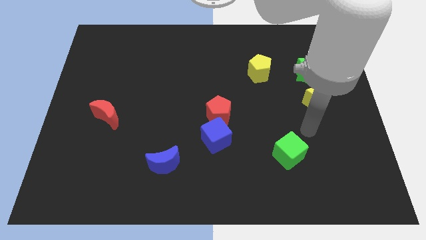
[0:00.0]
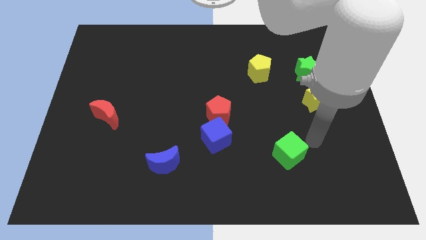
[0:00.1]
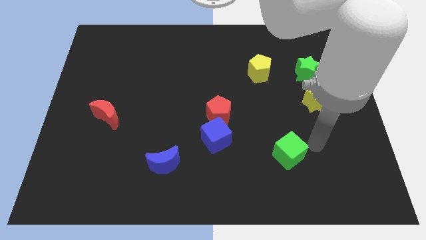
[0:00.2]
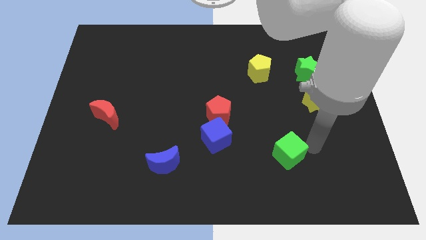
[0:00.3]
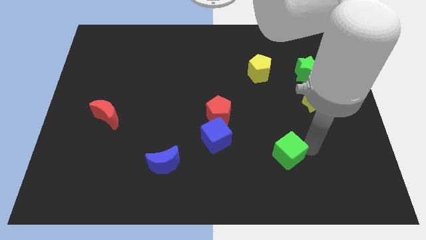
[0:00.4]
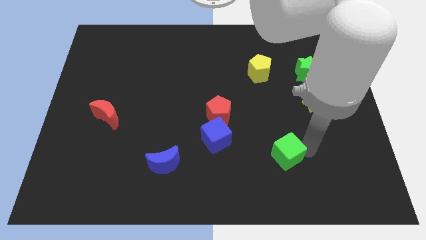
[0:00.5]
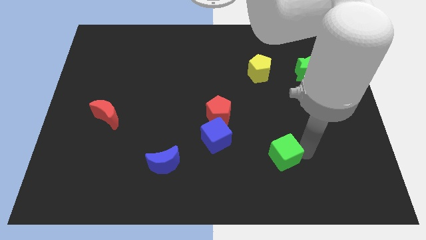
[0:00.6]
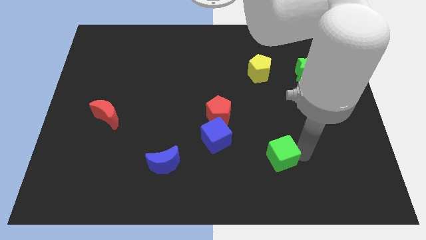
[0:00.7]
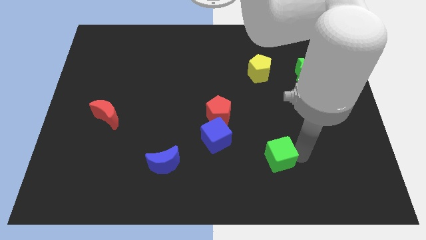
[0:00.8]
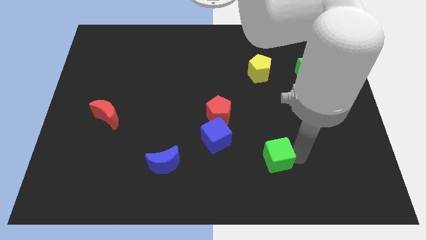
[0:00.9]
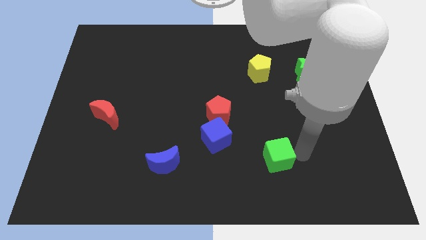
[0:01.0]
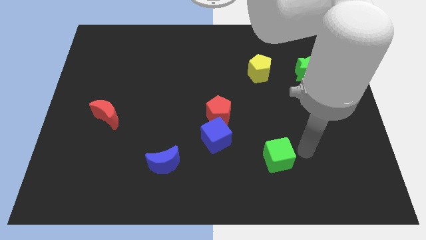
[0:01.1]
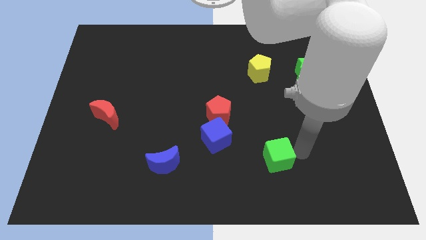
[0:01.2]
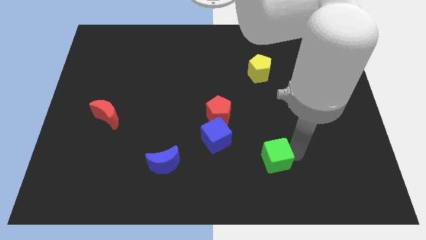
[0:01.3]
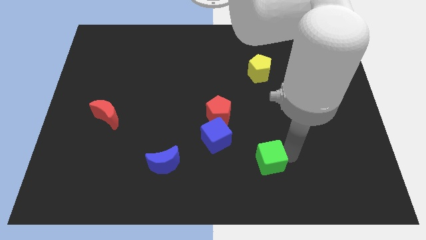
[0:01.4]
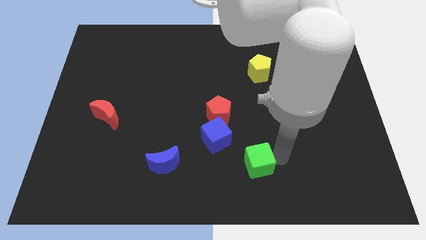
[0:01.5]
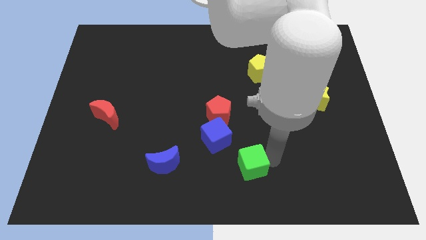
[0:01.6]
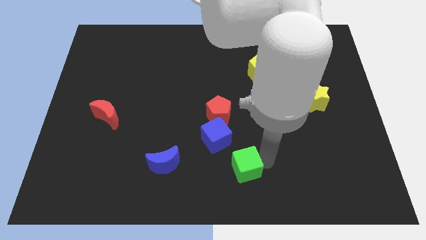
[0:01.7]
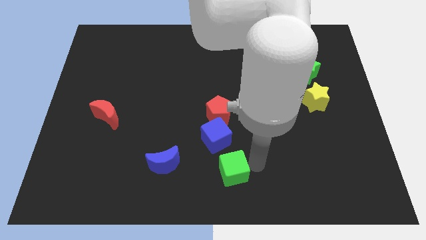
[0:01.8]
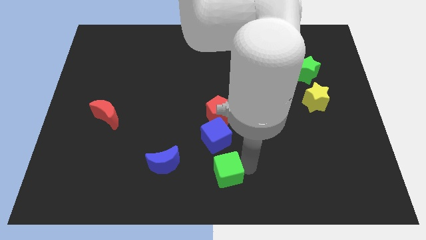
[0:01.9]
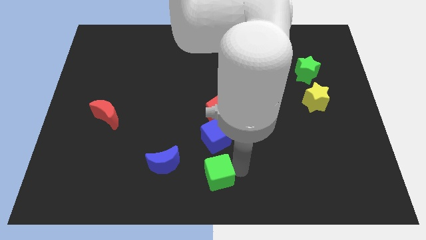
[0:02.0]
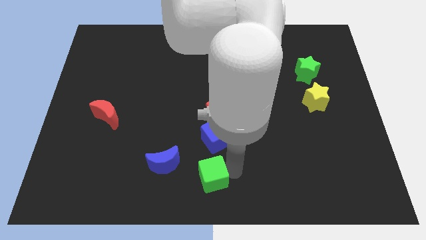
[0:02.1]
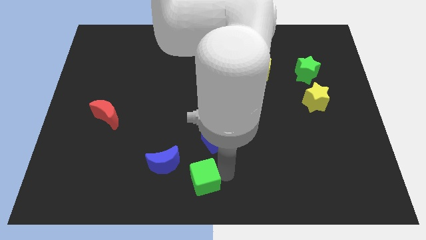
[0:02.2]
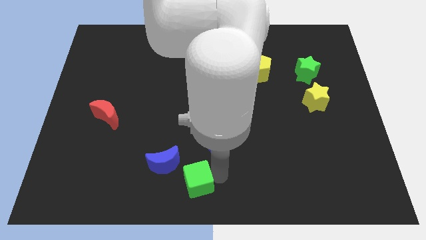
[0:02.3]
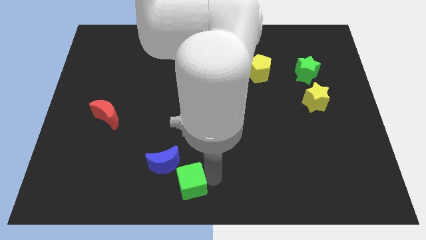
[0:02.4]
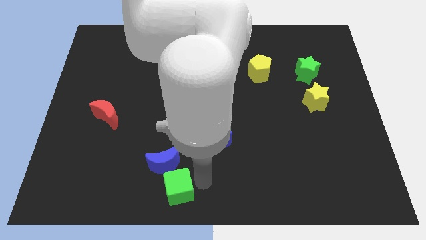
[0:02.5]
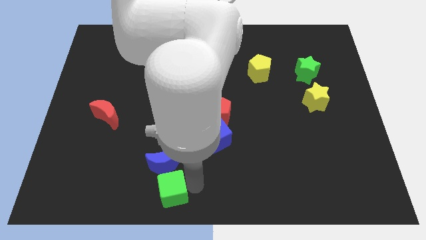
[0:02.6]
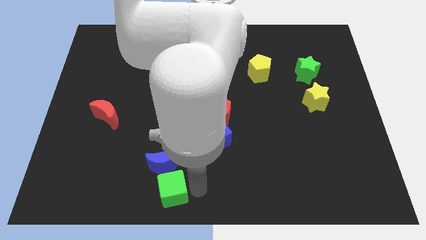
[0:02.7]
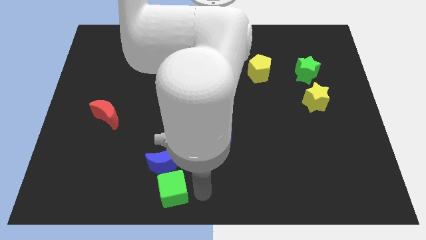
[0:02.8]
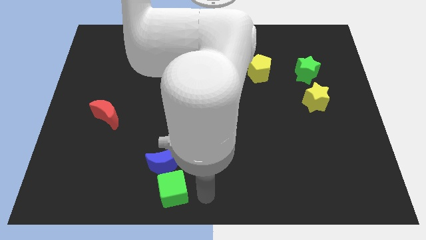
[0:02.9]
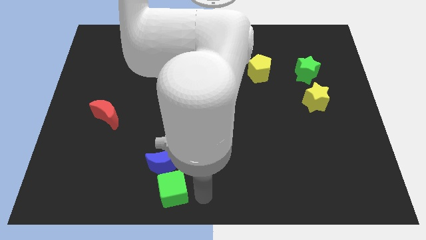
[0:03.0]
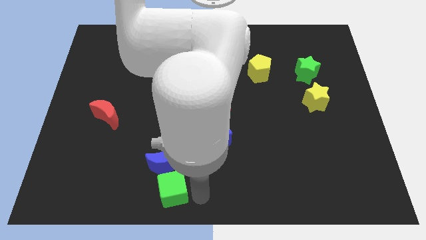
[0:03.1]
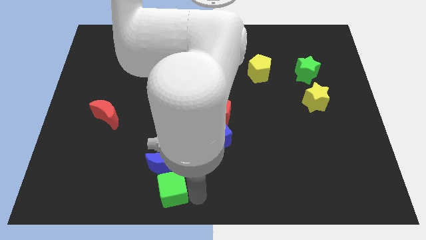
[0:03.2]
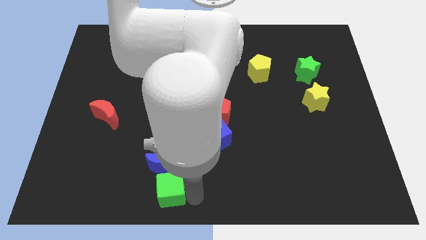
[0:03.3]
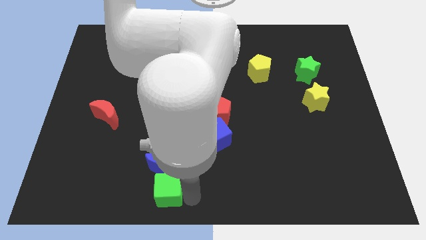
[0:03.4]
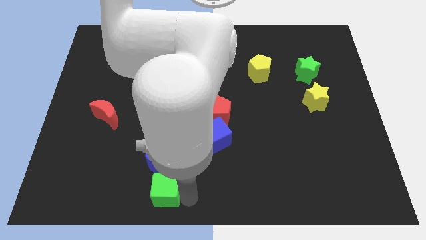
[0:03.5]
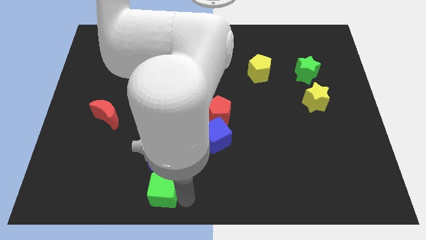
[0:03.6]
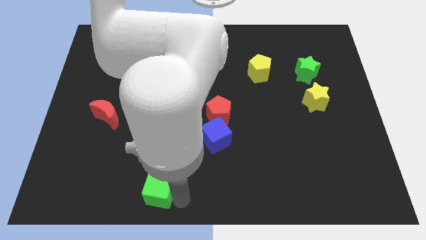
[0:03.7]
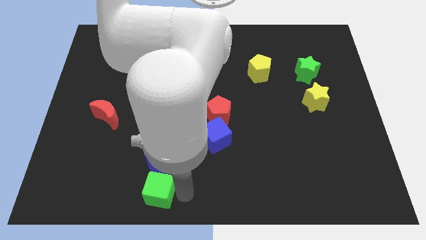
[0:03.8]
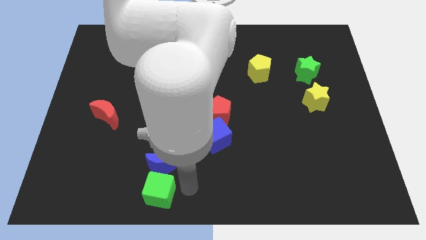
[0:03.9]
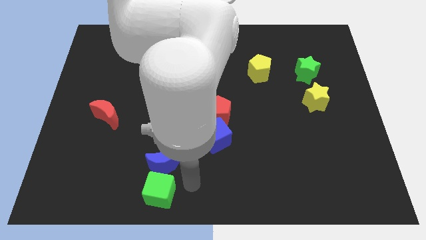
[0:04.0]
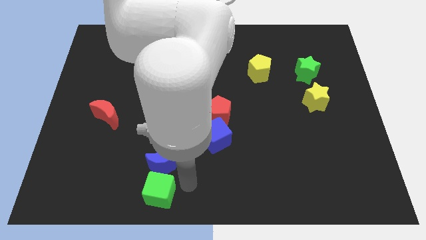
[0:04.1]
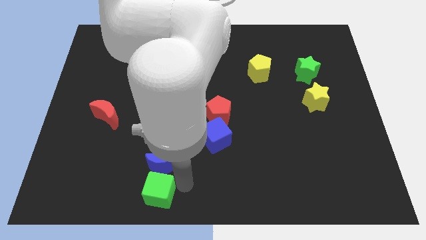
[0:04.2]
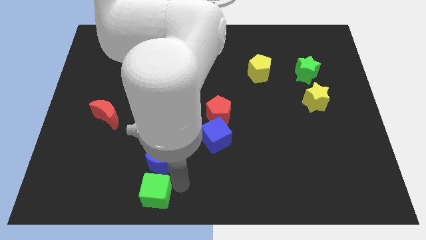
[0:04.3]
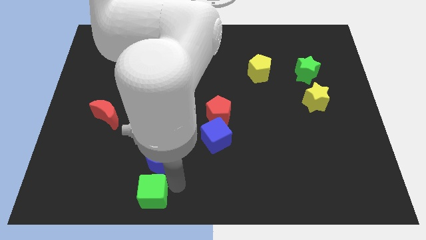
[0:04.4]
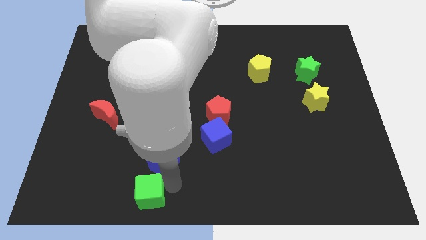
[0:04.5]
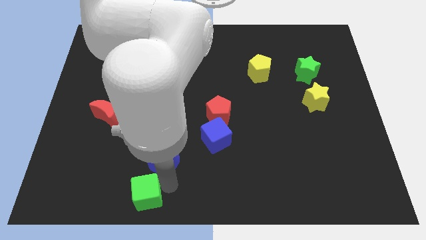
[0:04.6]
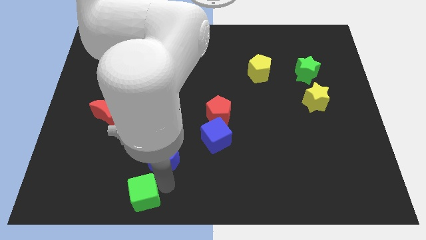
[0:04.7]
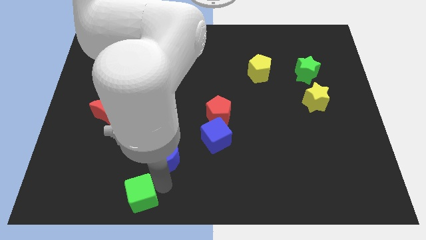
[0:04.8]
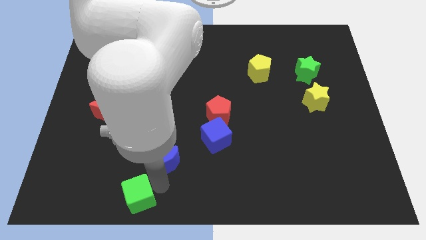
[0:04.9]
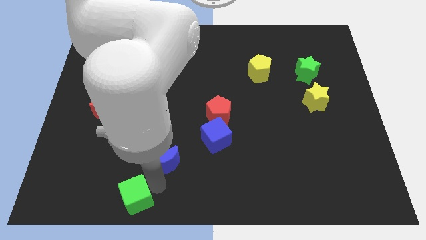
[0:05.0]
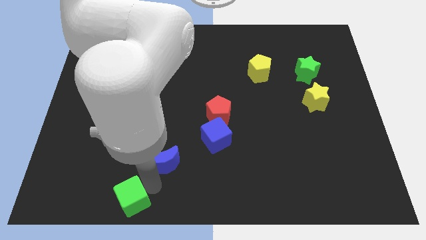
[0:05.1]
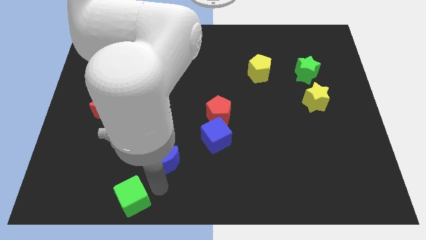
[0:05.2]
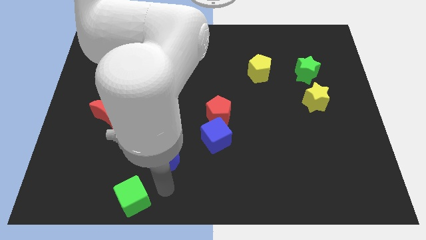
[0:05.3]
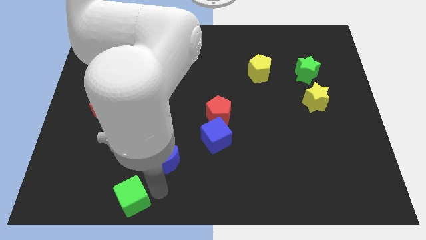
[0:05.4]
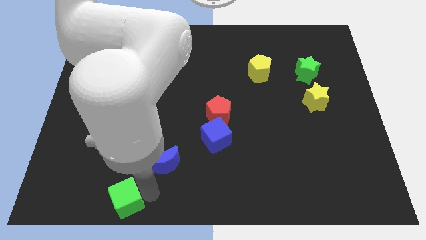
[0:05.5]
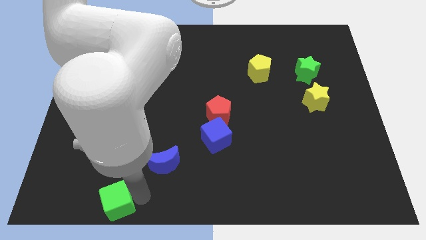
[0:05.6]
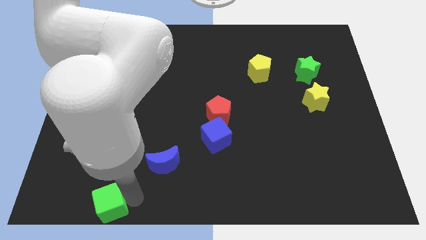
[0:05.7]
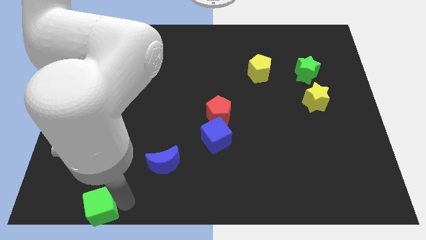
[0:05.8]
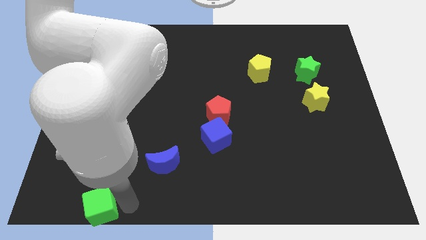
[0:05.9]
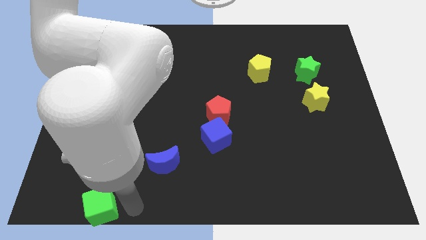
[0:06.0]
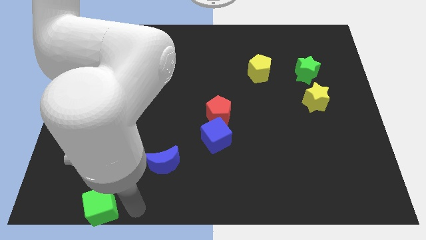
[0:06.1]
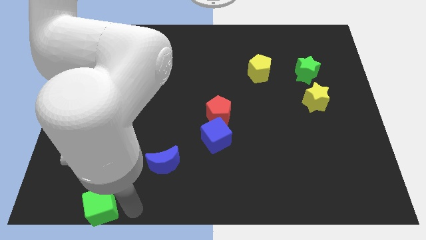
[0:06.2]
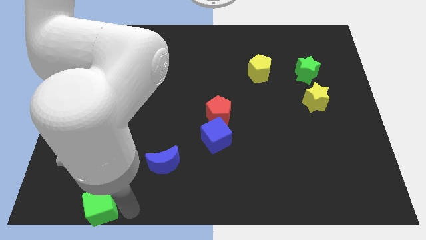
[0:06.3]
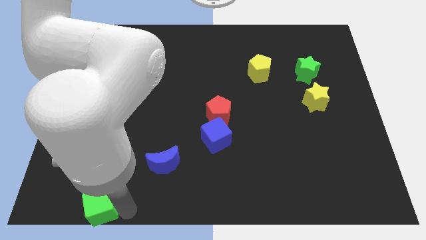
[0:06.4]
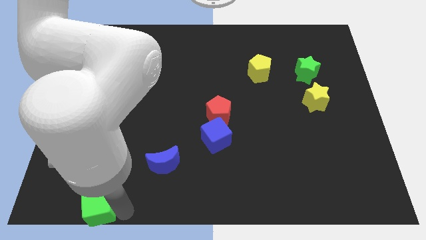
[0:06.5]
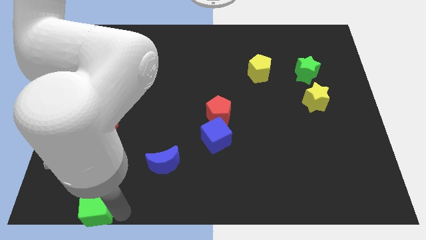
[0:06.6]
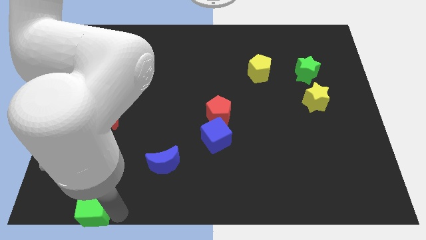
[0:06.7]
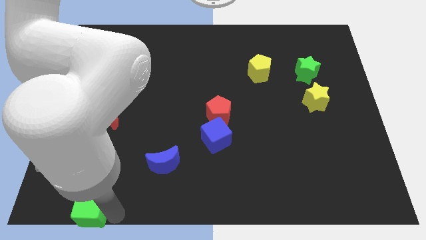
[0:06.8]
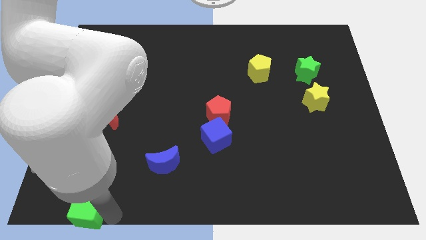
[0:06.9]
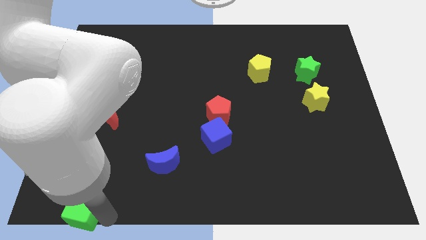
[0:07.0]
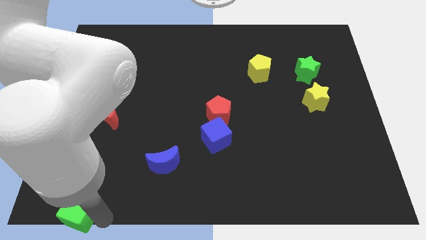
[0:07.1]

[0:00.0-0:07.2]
slide the green cube to the bottom left corner
